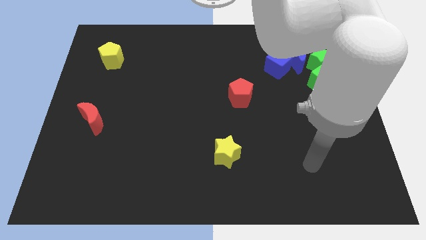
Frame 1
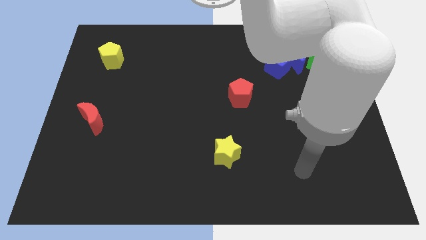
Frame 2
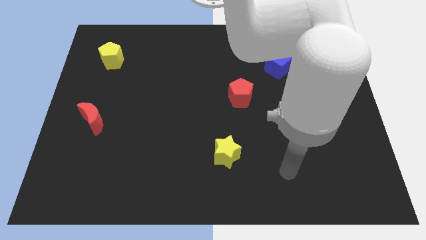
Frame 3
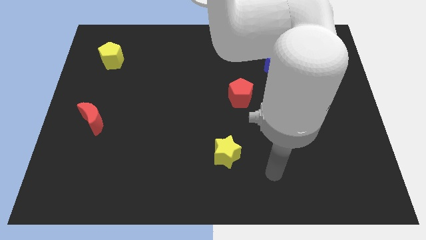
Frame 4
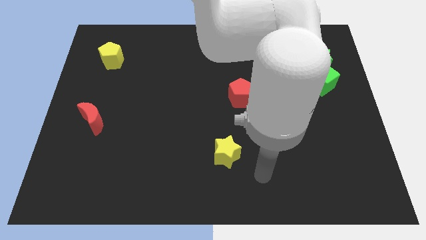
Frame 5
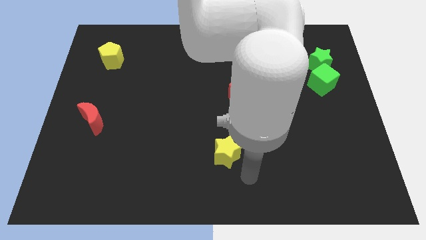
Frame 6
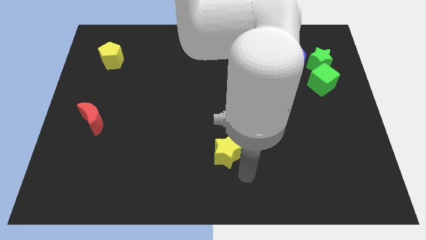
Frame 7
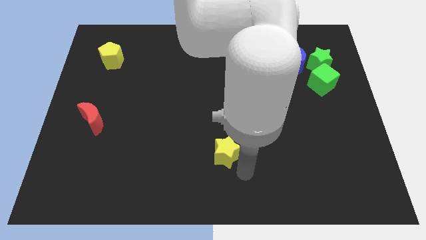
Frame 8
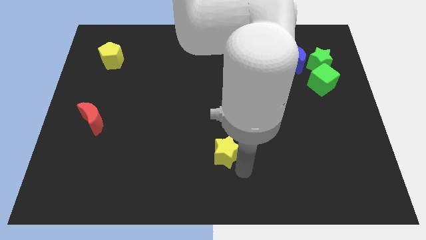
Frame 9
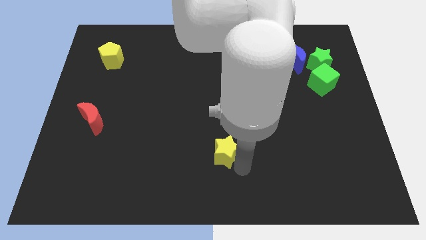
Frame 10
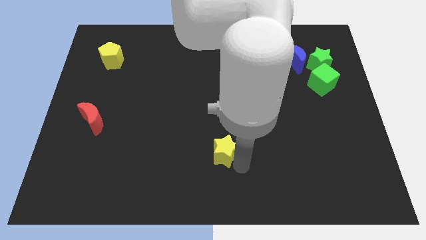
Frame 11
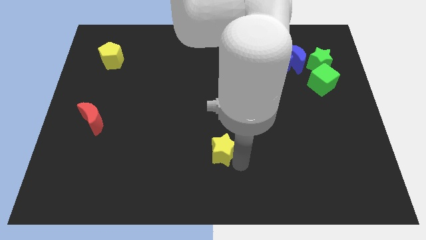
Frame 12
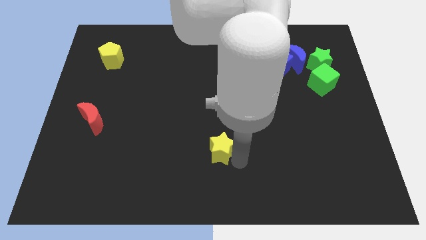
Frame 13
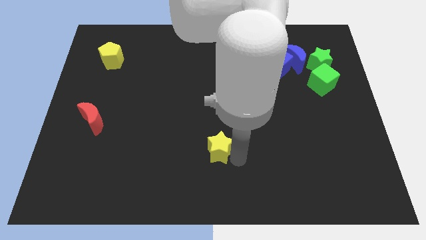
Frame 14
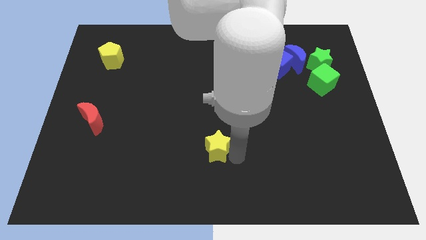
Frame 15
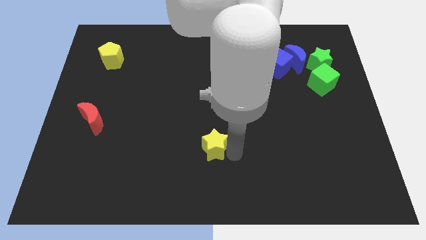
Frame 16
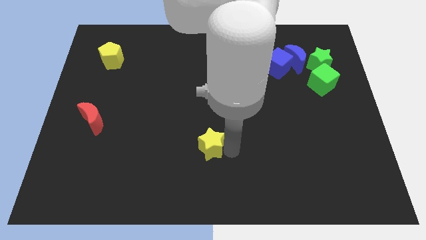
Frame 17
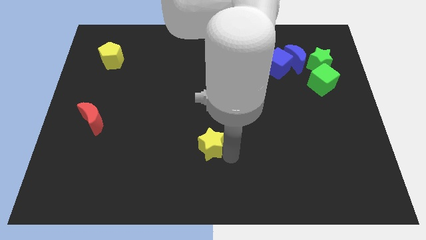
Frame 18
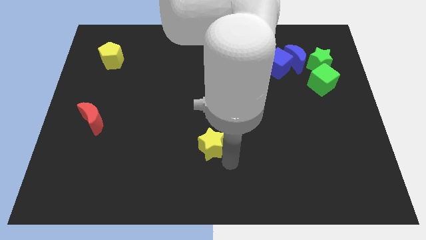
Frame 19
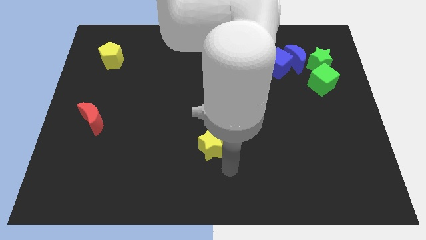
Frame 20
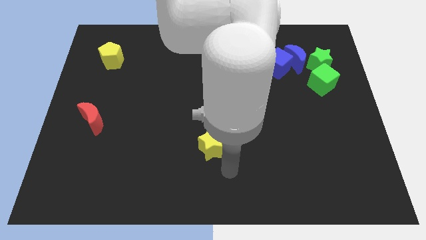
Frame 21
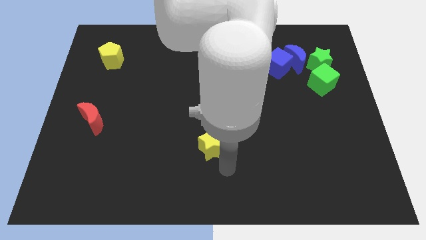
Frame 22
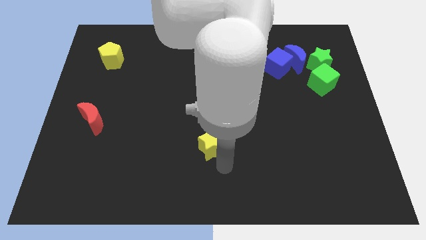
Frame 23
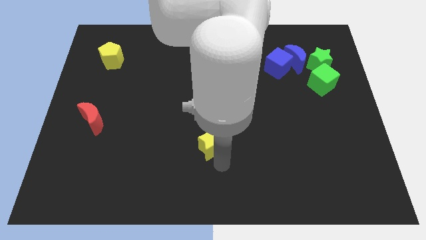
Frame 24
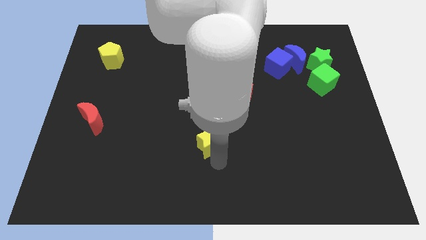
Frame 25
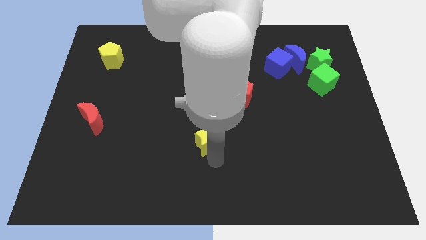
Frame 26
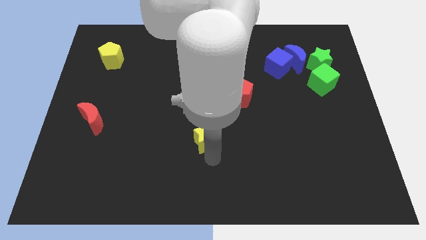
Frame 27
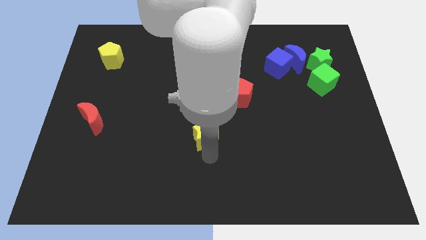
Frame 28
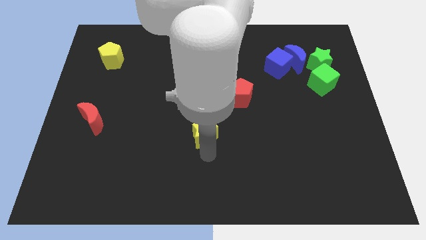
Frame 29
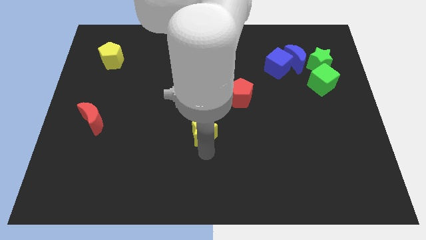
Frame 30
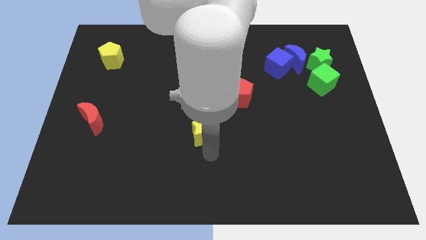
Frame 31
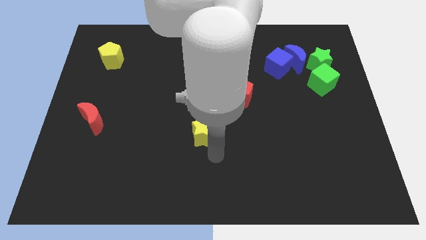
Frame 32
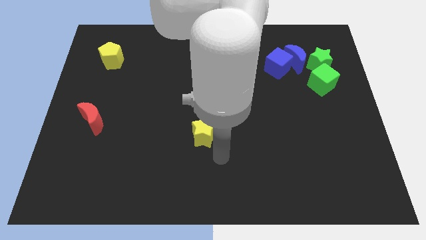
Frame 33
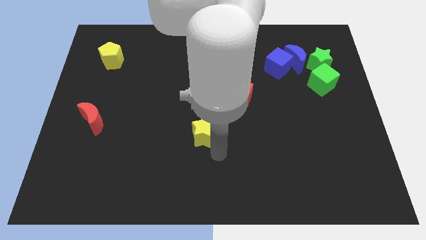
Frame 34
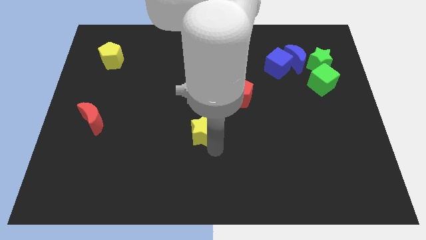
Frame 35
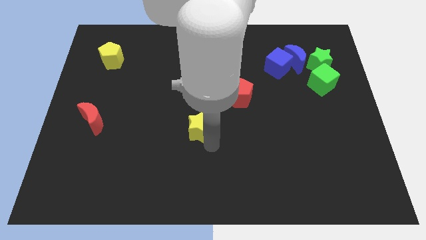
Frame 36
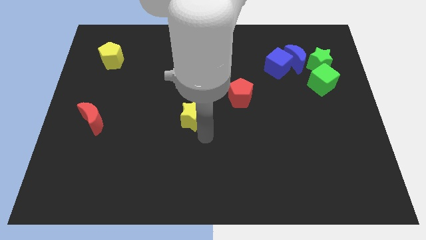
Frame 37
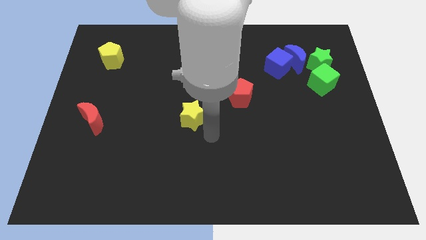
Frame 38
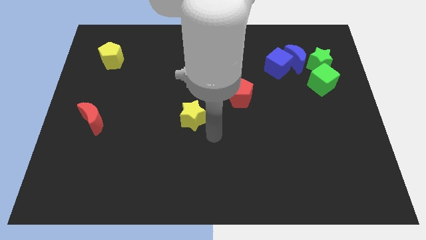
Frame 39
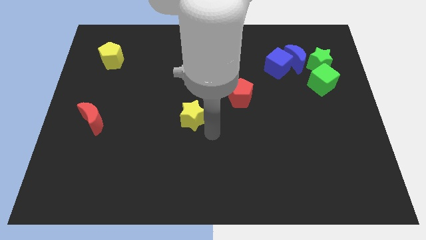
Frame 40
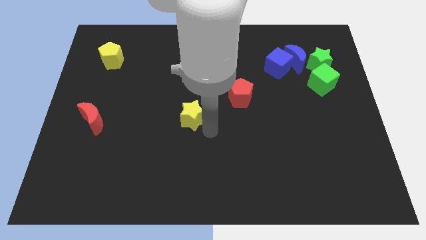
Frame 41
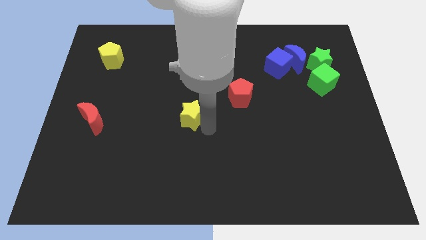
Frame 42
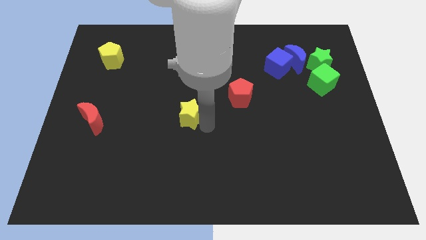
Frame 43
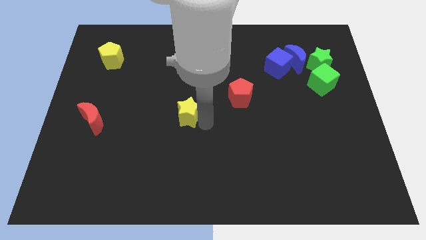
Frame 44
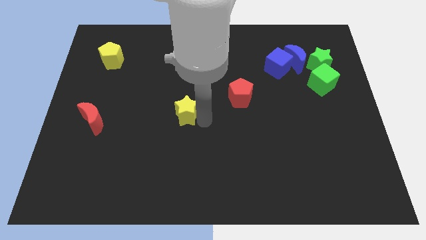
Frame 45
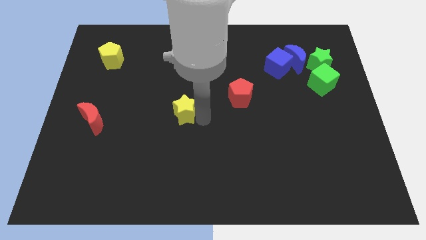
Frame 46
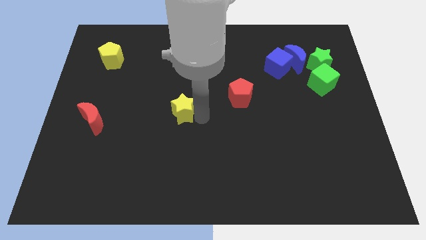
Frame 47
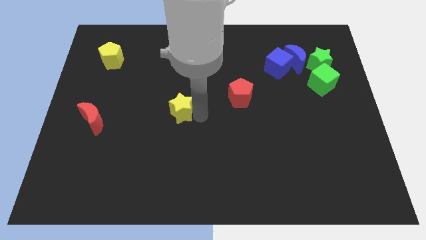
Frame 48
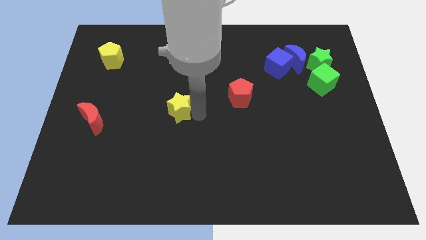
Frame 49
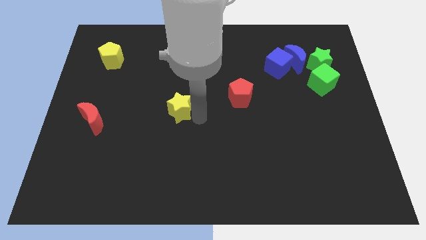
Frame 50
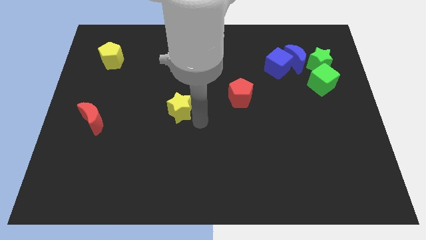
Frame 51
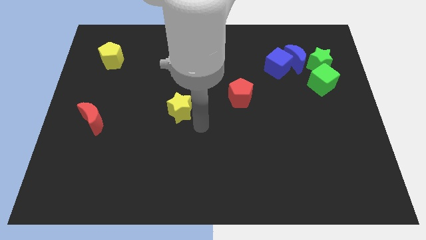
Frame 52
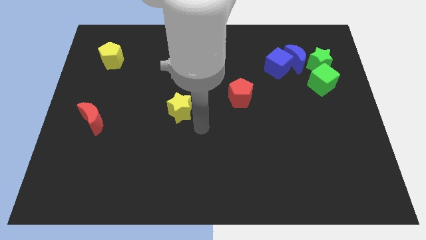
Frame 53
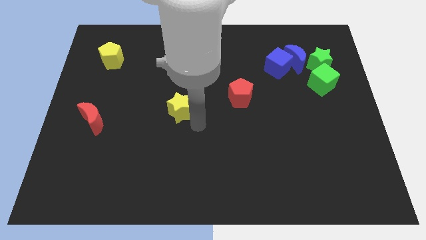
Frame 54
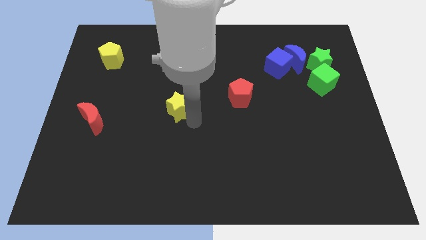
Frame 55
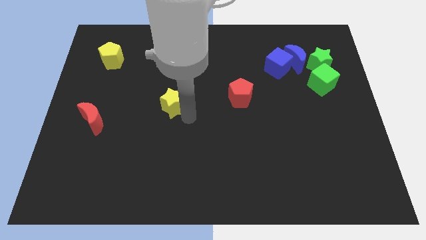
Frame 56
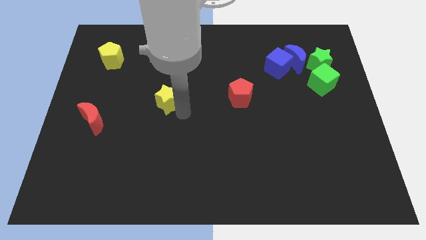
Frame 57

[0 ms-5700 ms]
push the yellow star upwards and then to the left

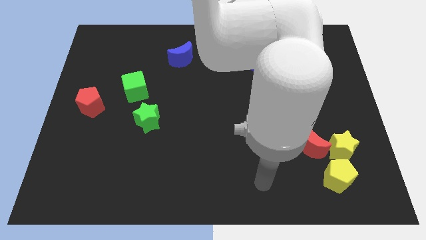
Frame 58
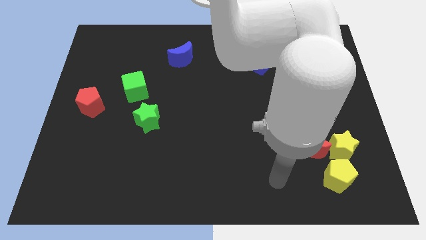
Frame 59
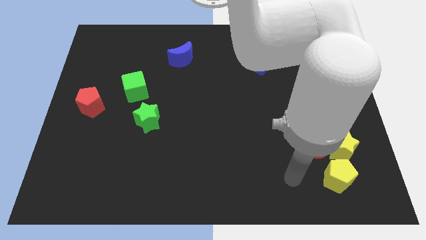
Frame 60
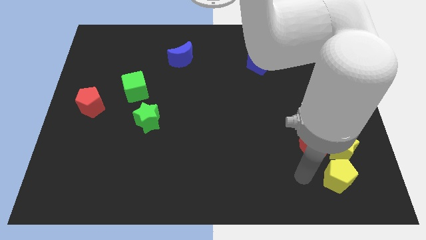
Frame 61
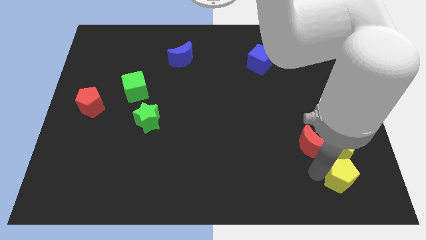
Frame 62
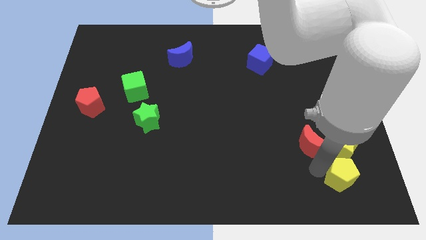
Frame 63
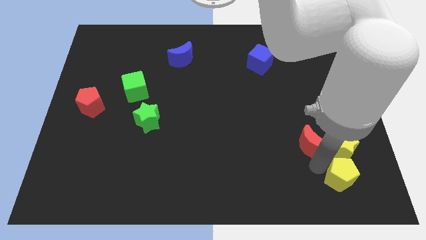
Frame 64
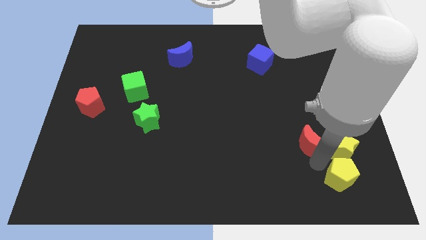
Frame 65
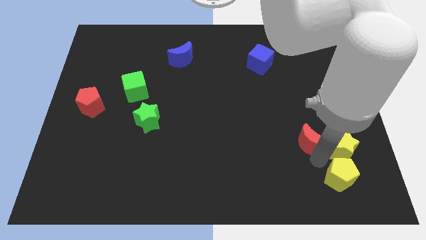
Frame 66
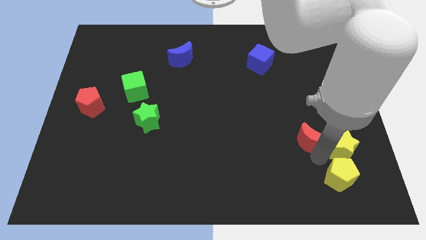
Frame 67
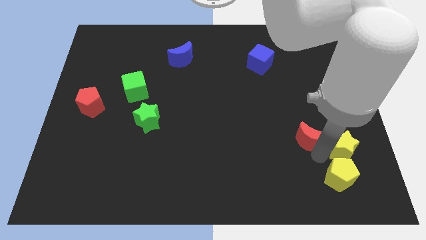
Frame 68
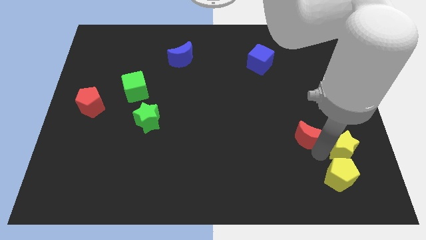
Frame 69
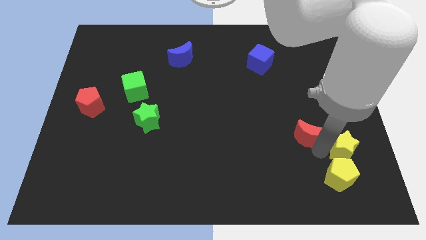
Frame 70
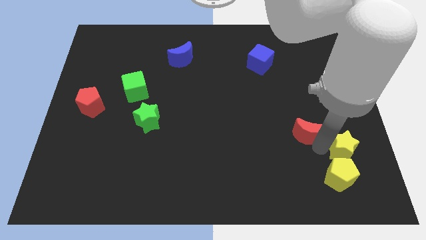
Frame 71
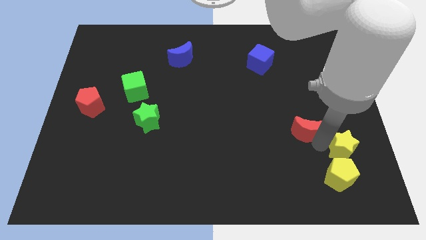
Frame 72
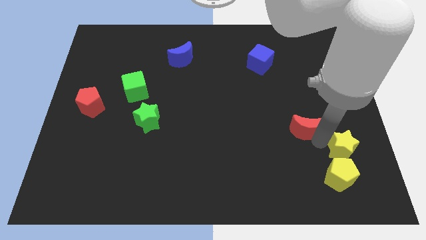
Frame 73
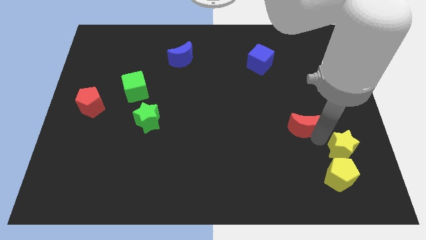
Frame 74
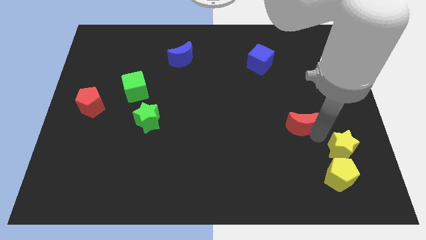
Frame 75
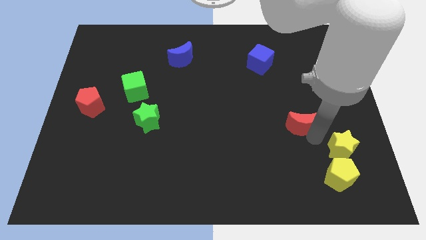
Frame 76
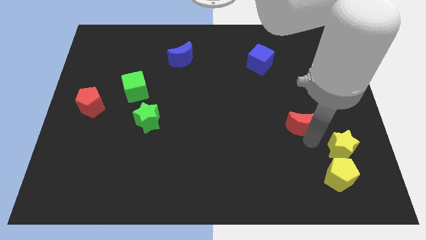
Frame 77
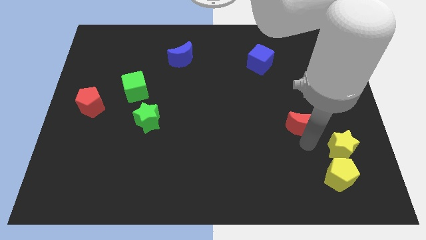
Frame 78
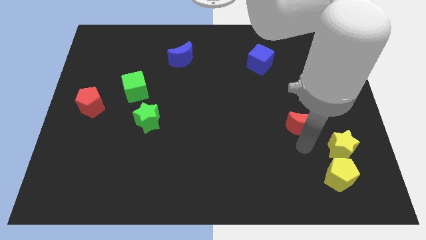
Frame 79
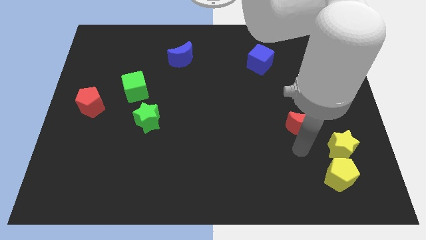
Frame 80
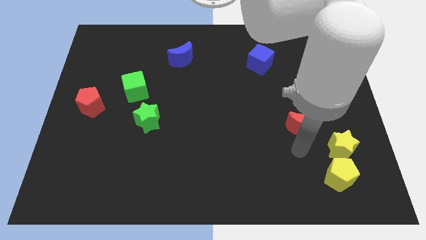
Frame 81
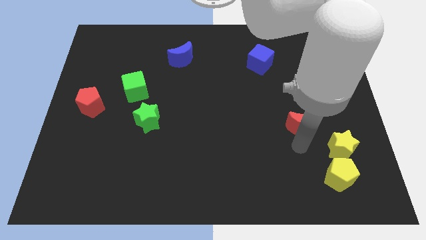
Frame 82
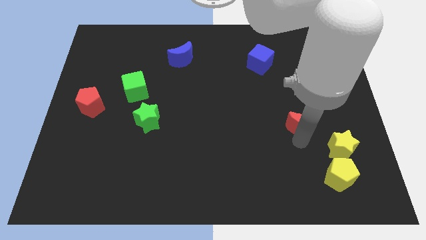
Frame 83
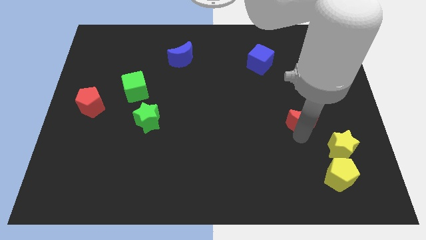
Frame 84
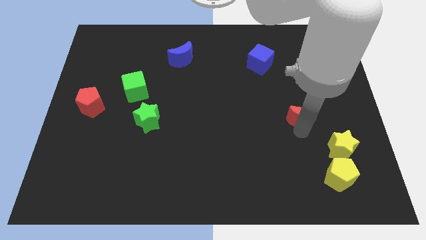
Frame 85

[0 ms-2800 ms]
slide the red moon upwards somewhat
